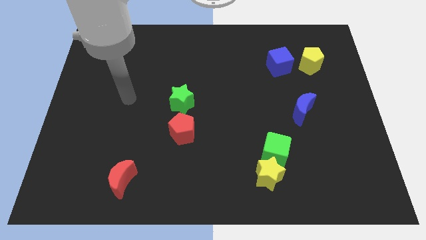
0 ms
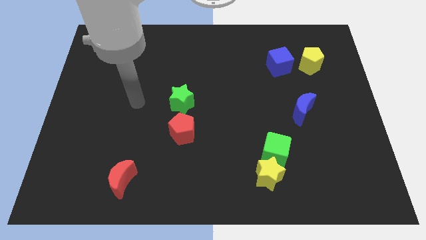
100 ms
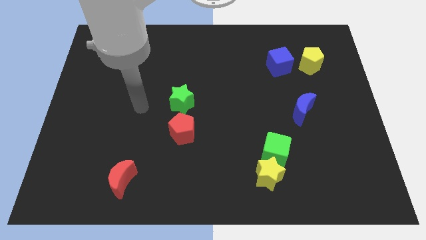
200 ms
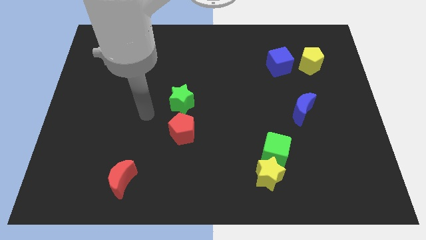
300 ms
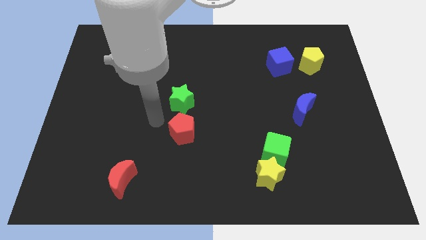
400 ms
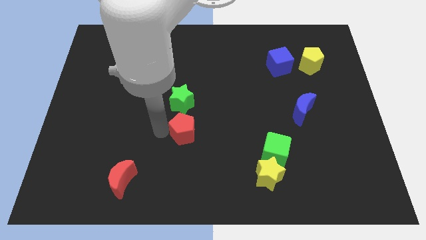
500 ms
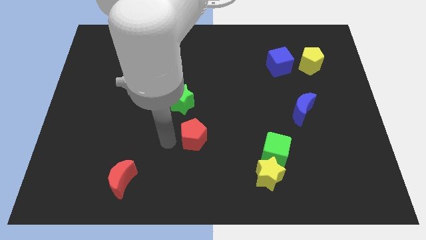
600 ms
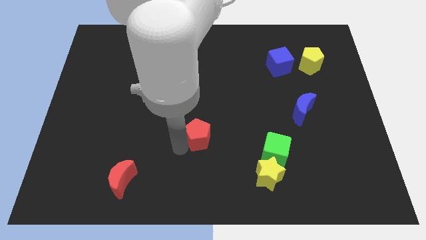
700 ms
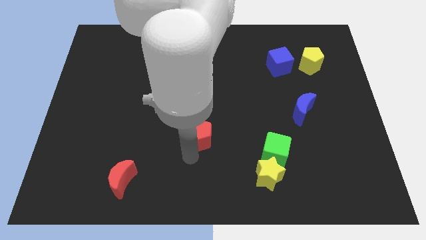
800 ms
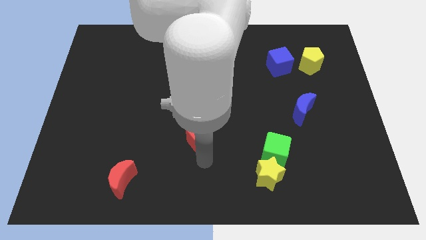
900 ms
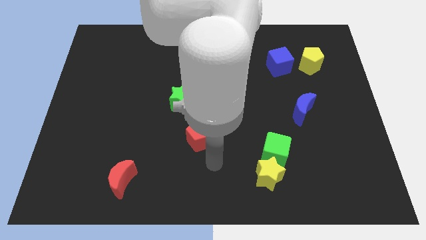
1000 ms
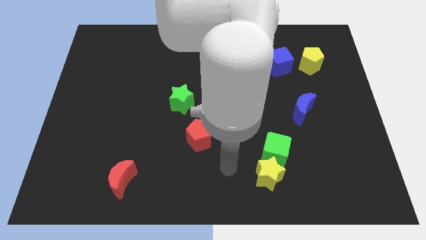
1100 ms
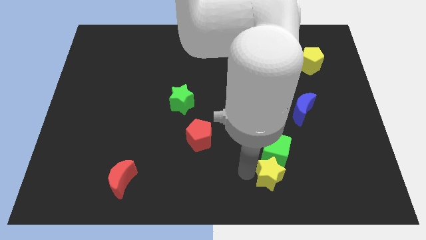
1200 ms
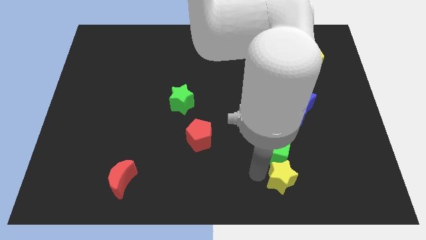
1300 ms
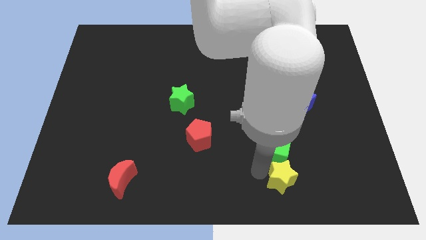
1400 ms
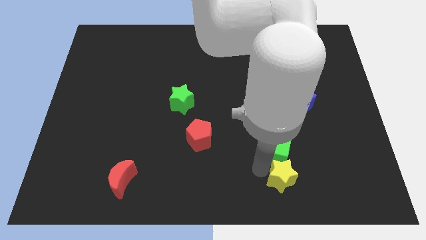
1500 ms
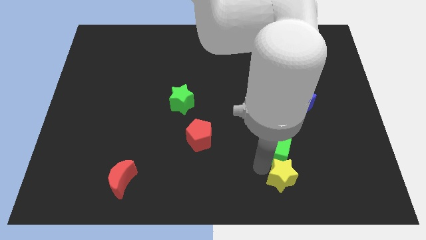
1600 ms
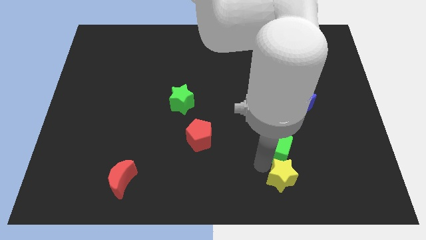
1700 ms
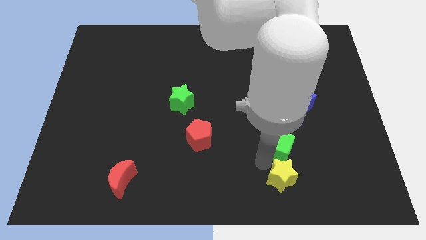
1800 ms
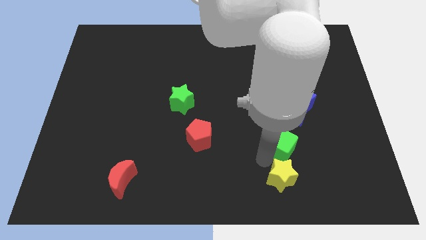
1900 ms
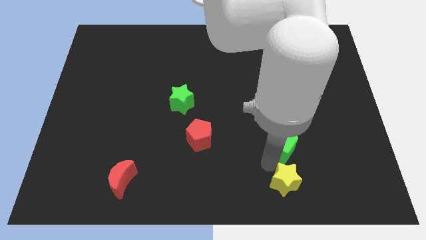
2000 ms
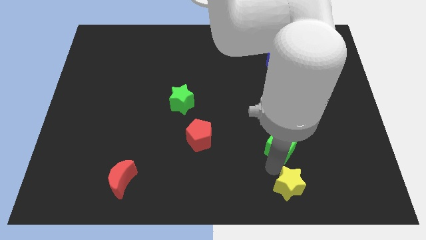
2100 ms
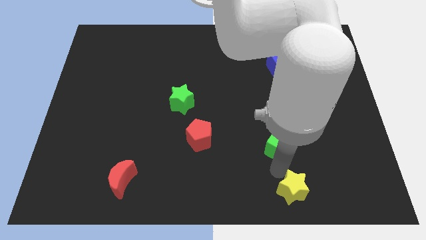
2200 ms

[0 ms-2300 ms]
pull the green cube apart from the yellow star

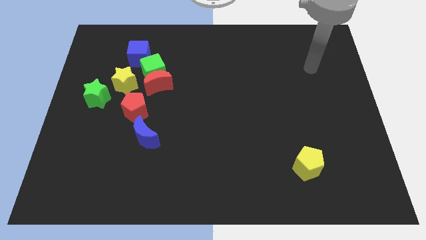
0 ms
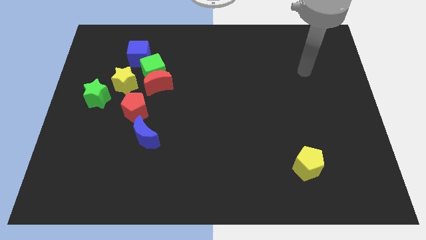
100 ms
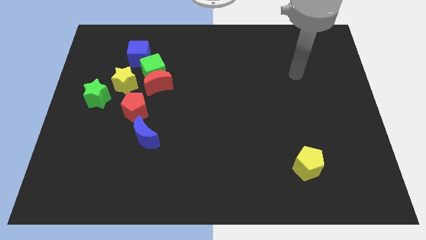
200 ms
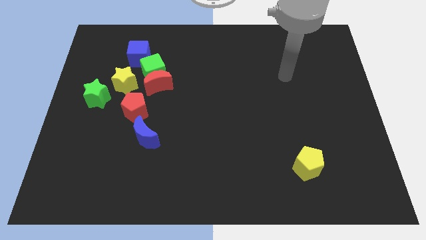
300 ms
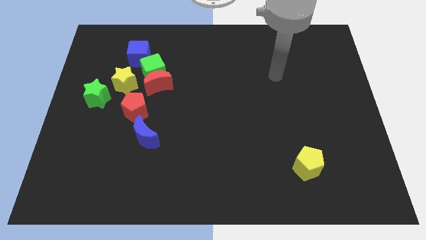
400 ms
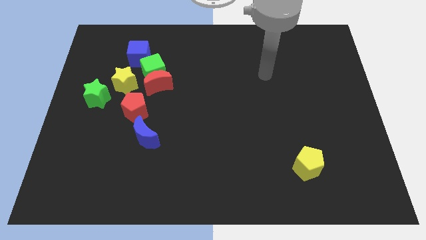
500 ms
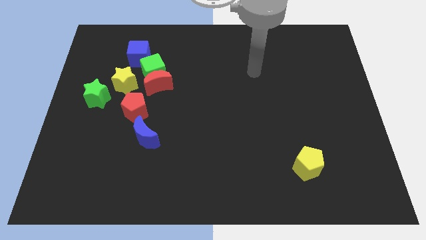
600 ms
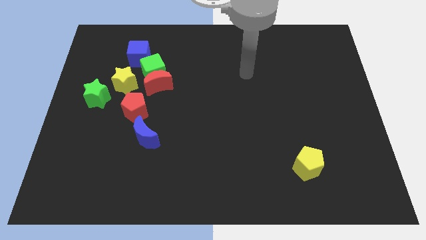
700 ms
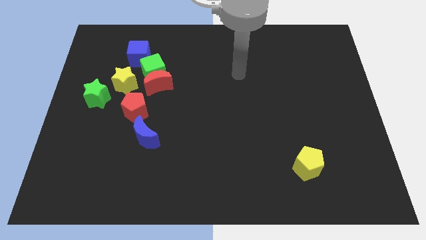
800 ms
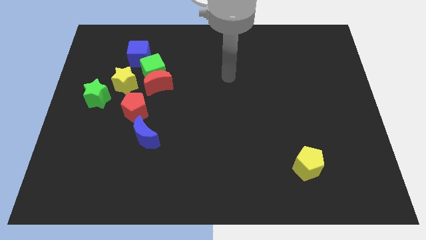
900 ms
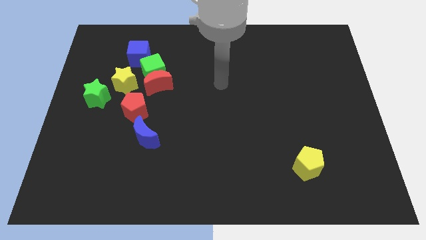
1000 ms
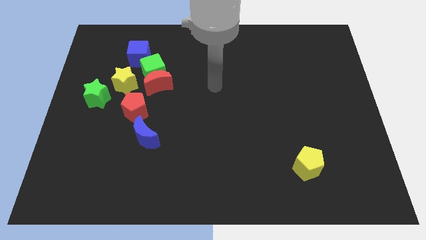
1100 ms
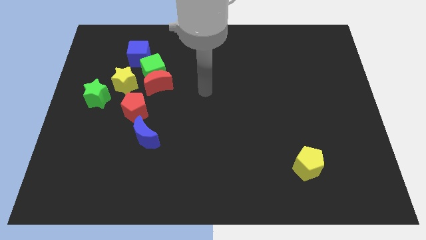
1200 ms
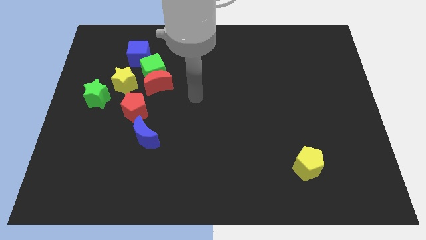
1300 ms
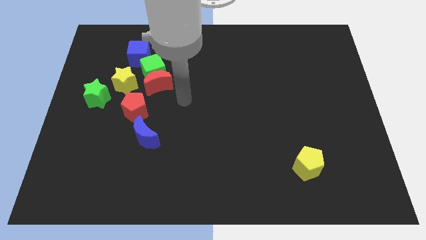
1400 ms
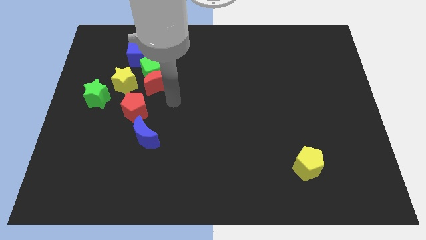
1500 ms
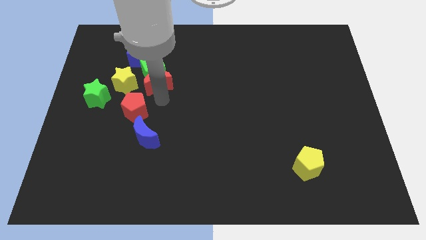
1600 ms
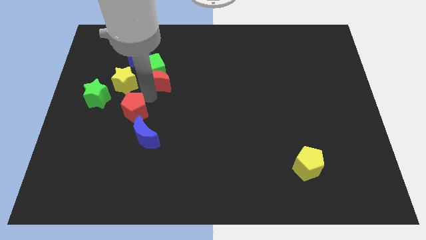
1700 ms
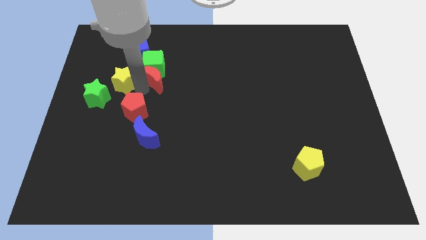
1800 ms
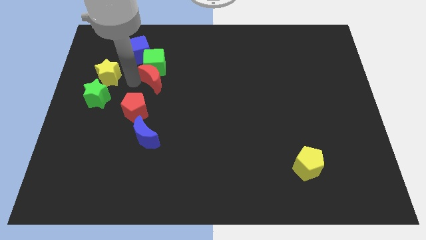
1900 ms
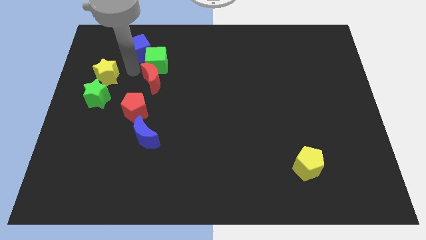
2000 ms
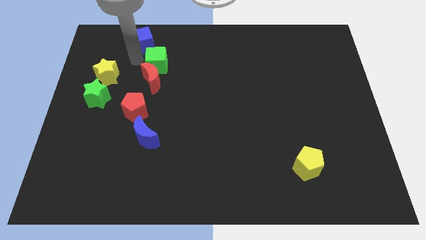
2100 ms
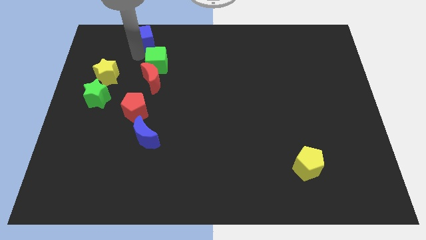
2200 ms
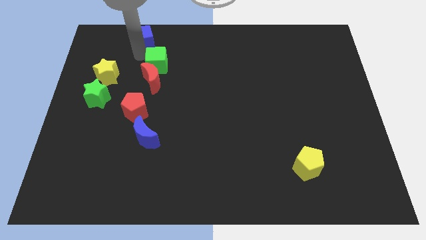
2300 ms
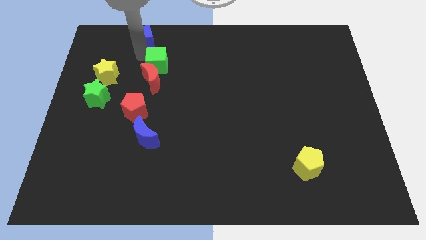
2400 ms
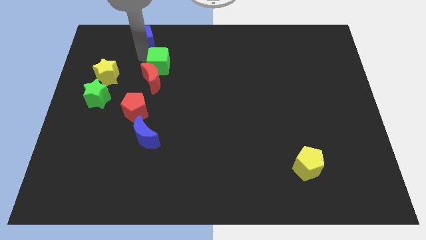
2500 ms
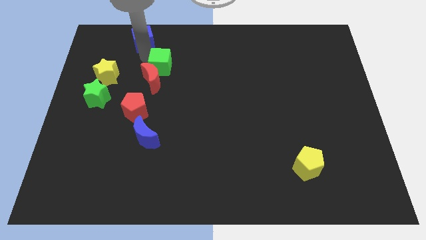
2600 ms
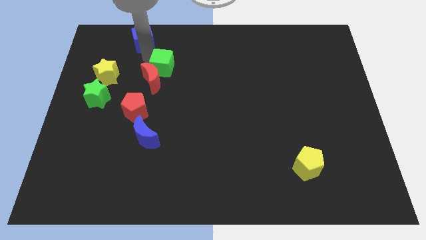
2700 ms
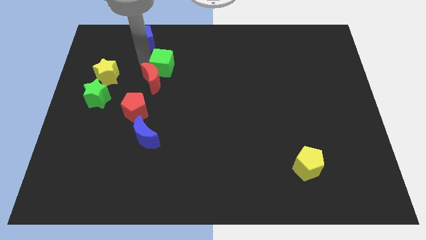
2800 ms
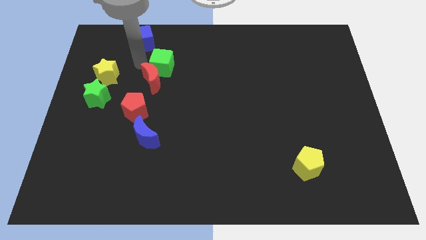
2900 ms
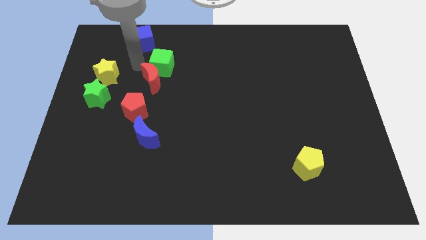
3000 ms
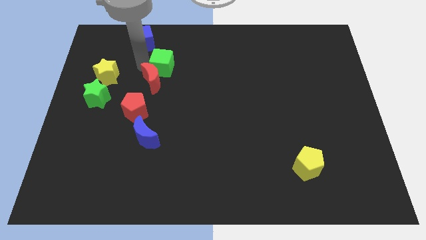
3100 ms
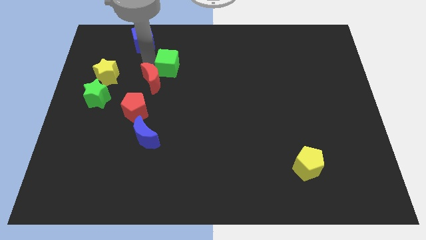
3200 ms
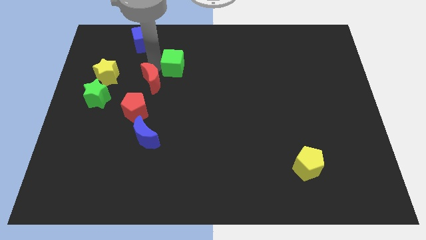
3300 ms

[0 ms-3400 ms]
move the green cube away from the group

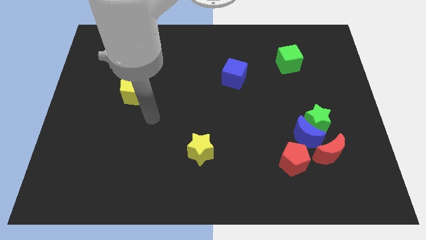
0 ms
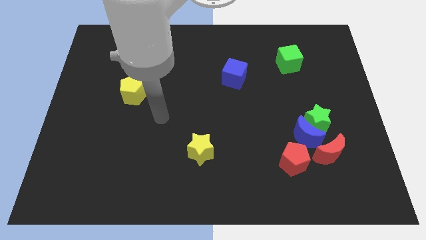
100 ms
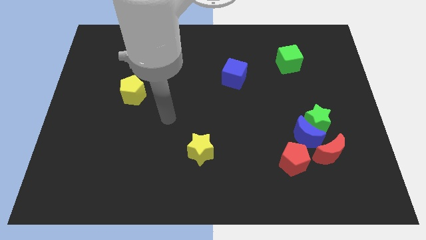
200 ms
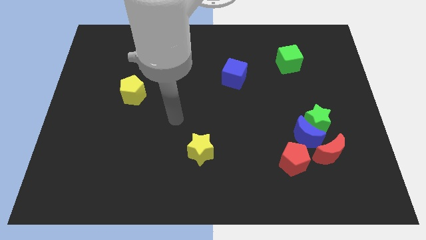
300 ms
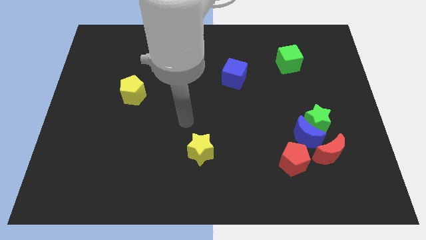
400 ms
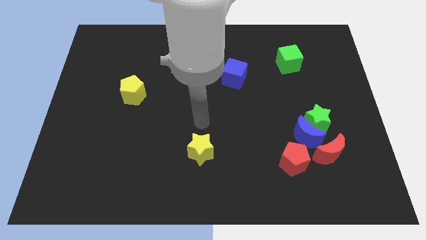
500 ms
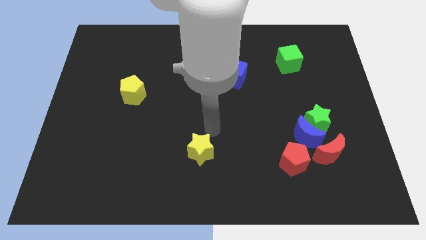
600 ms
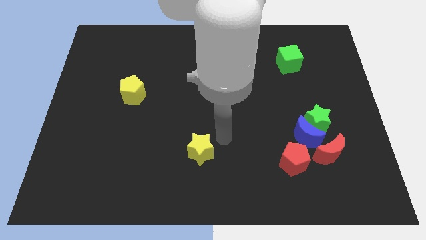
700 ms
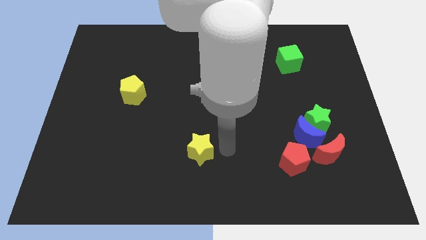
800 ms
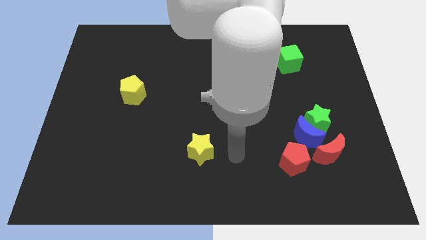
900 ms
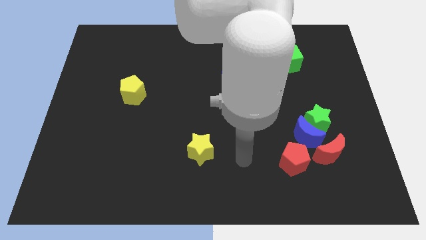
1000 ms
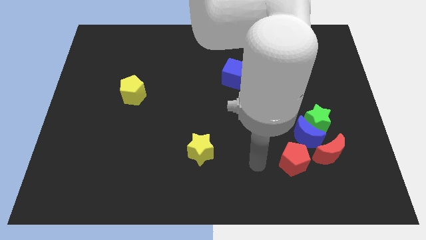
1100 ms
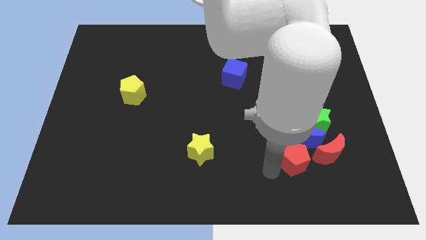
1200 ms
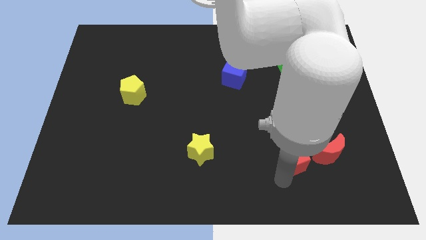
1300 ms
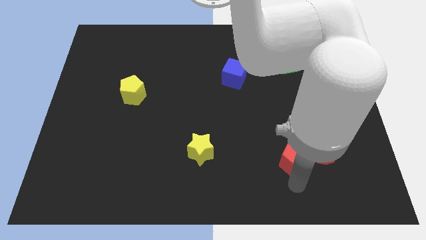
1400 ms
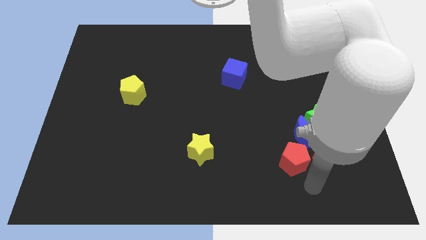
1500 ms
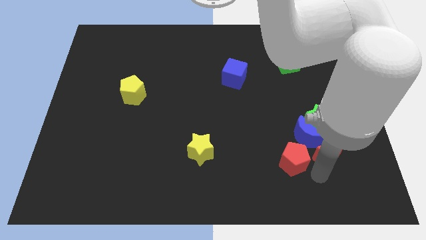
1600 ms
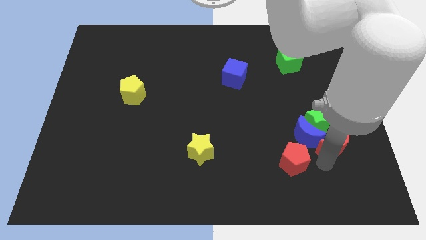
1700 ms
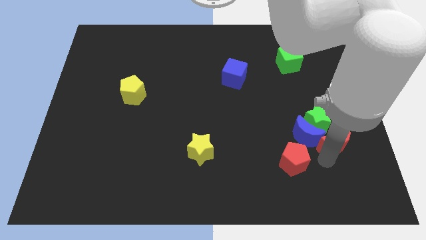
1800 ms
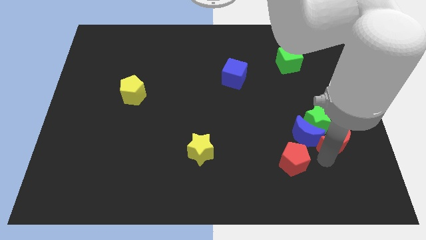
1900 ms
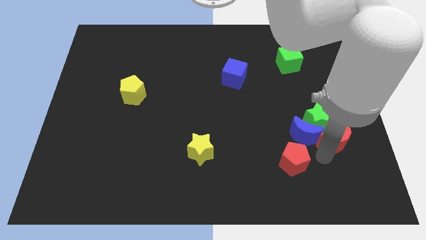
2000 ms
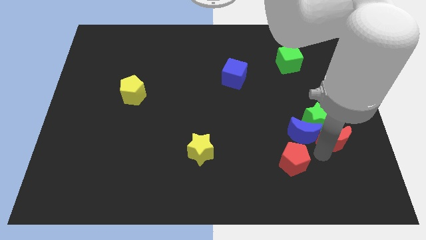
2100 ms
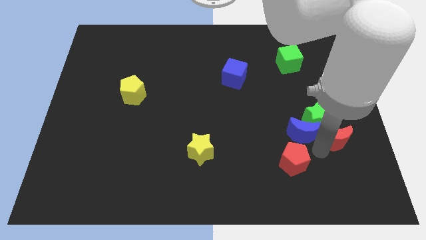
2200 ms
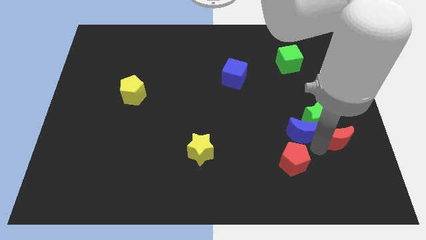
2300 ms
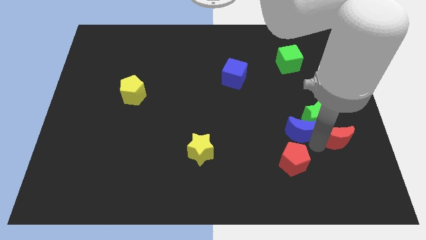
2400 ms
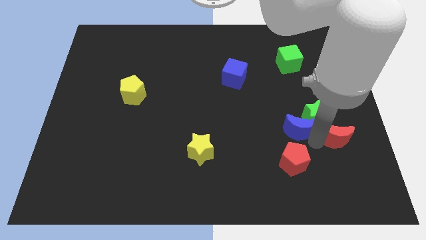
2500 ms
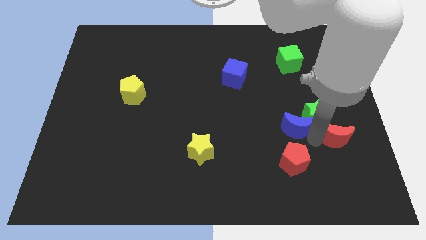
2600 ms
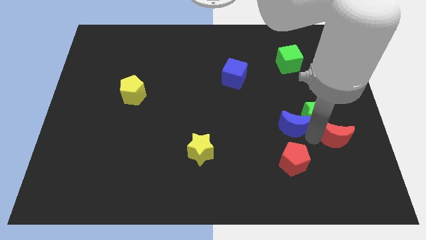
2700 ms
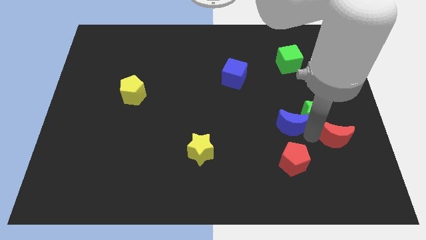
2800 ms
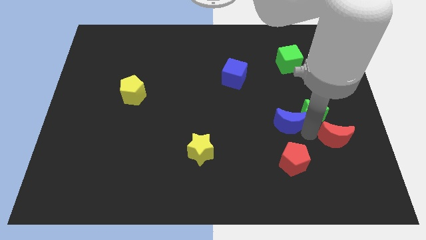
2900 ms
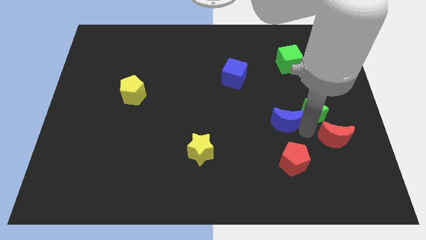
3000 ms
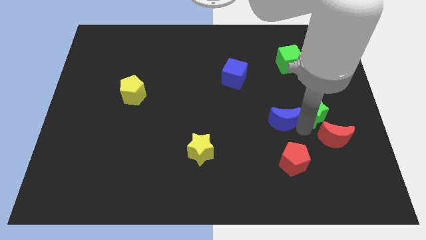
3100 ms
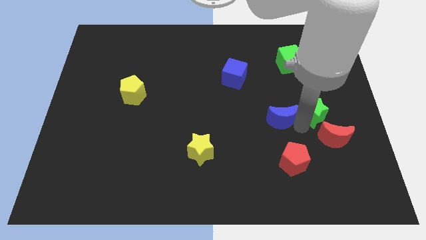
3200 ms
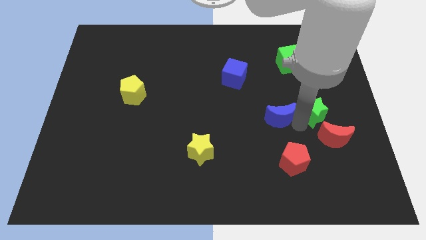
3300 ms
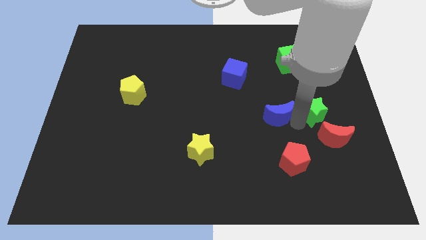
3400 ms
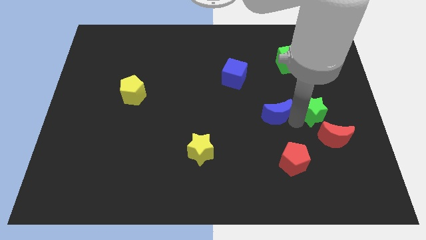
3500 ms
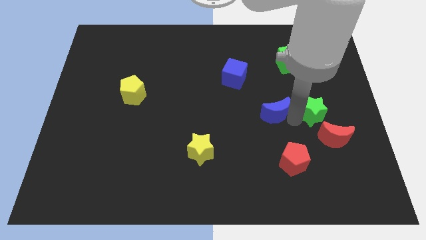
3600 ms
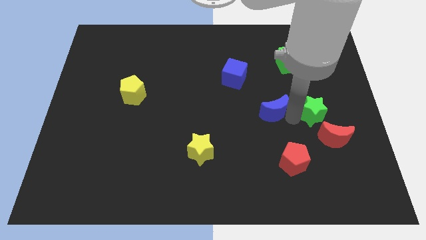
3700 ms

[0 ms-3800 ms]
move the blue moon away from the group

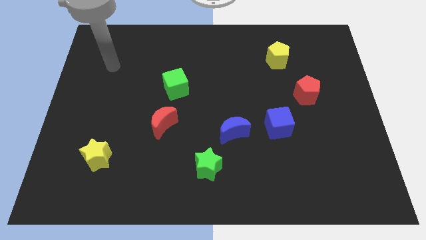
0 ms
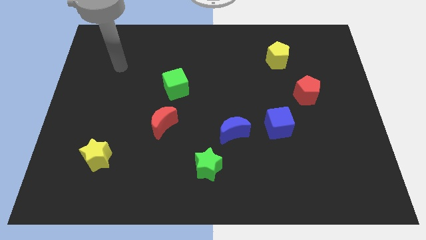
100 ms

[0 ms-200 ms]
pull the blue moon apart from the green star
